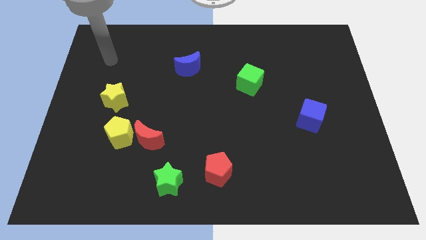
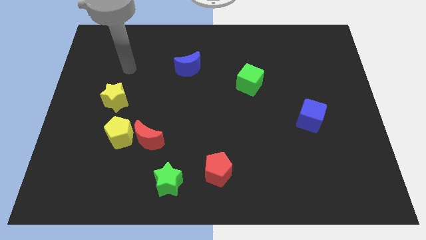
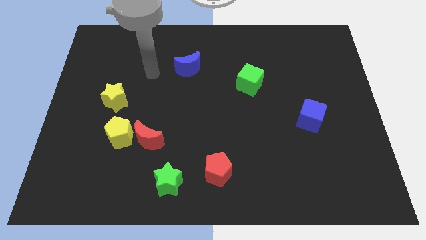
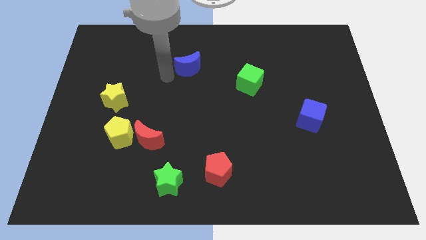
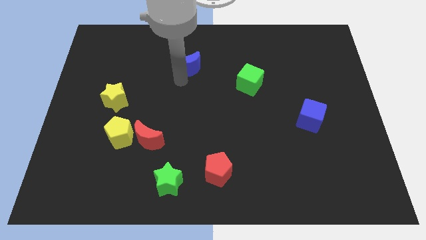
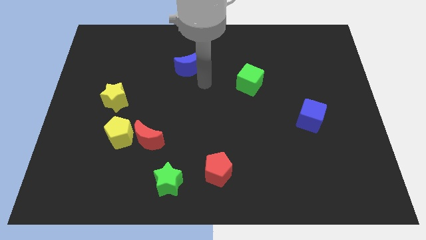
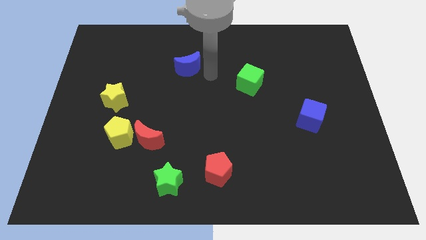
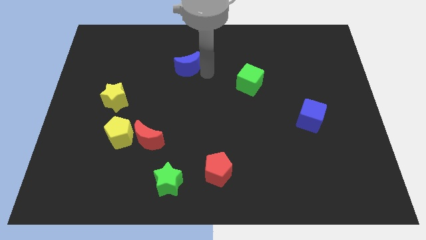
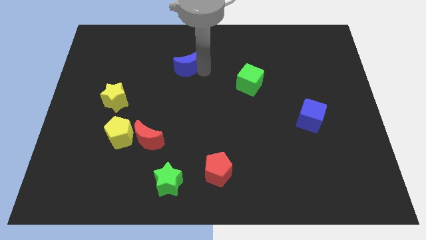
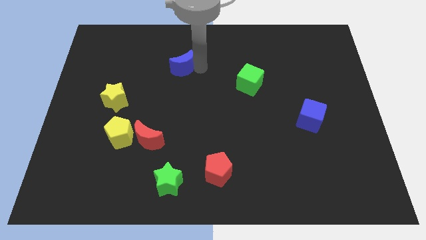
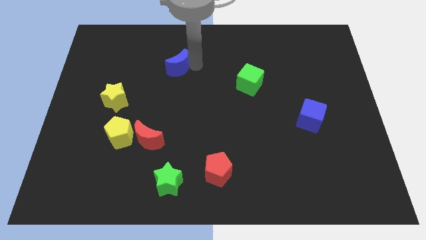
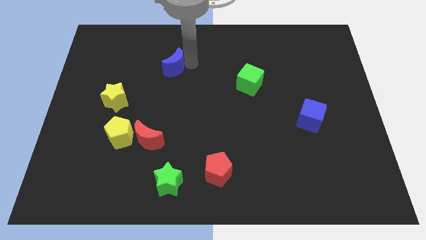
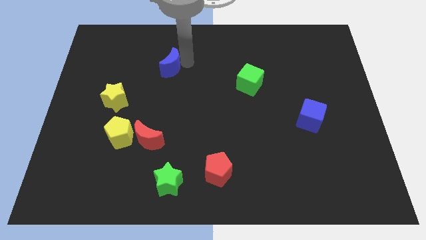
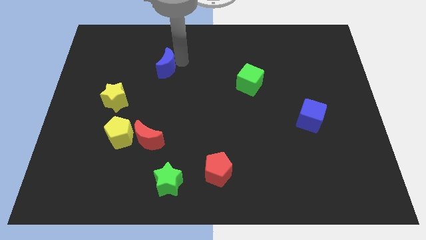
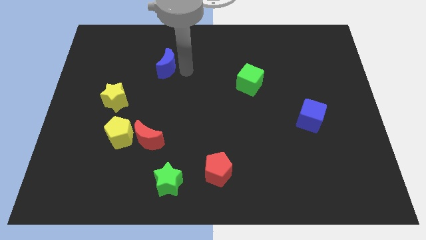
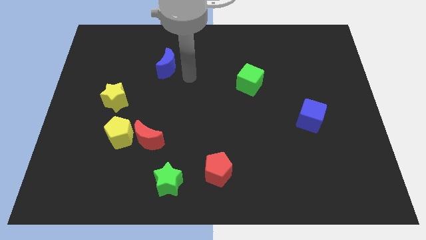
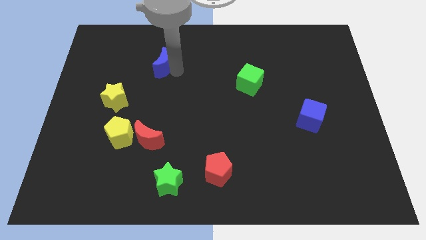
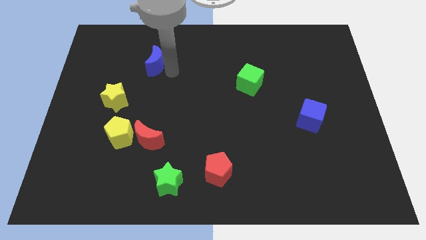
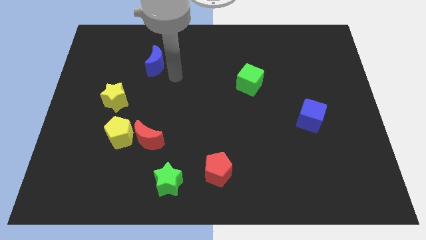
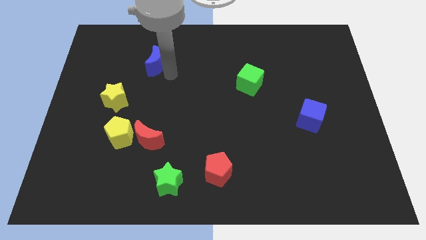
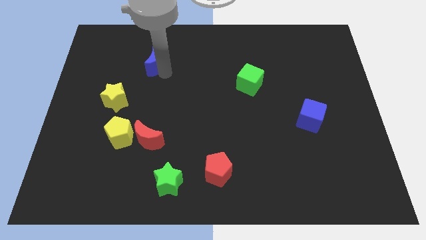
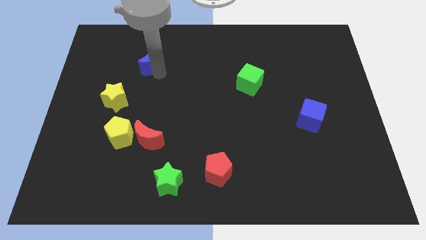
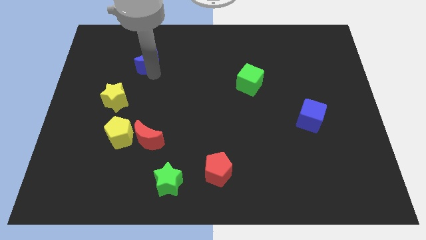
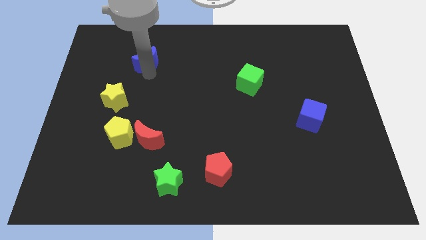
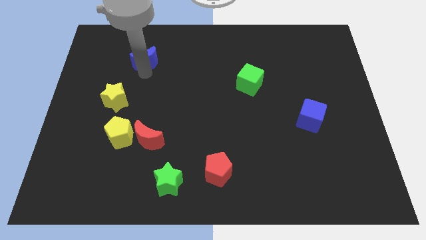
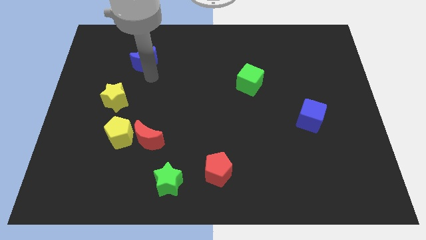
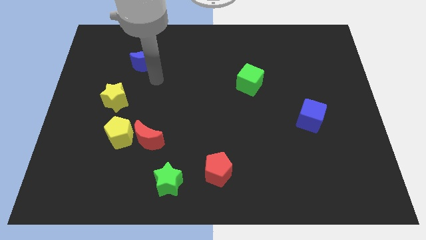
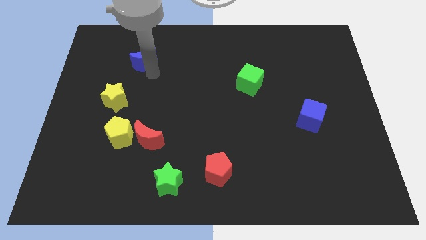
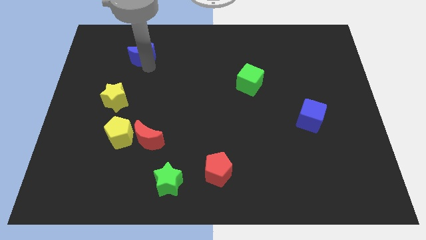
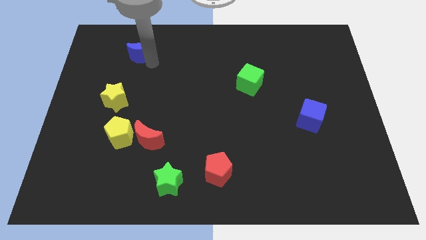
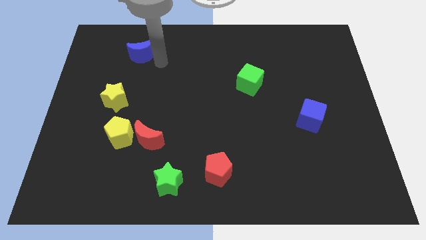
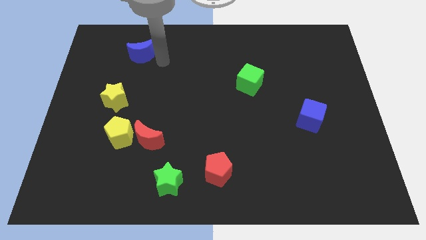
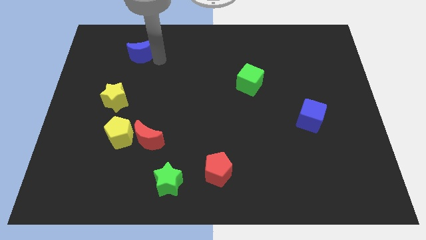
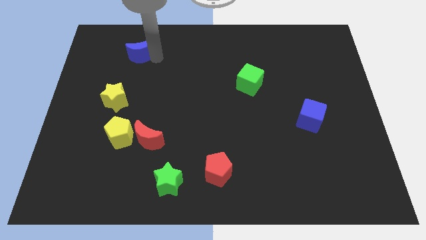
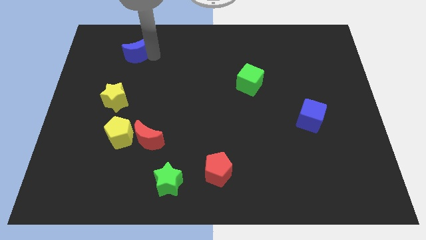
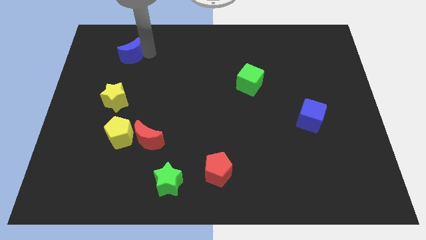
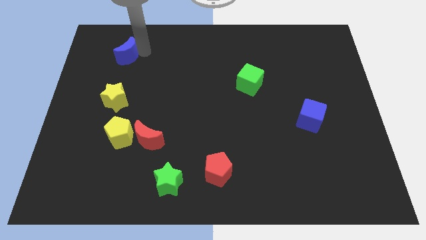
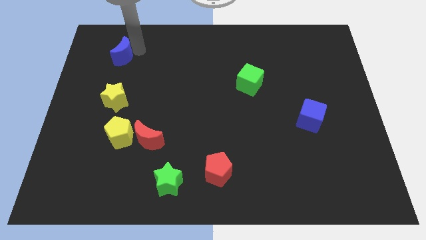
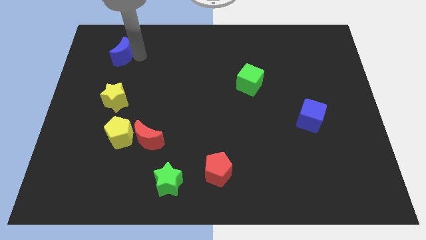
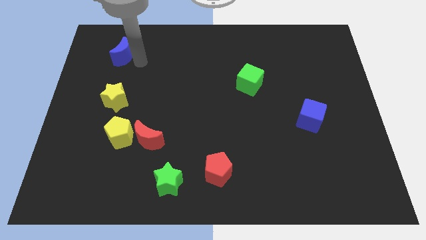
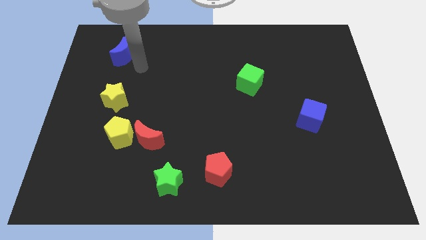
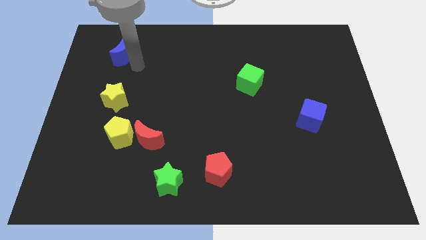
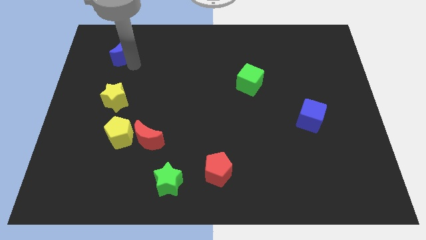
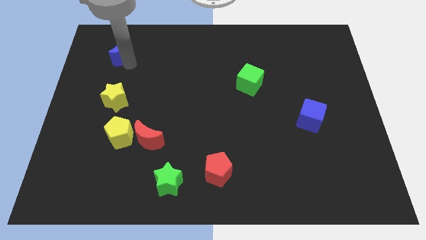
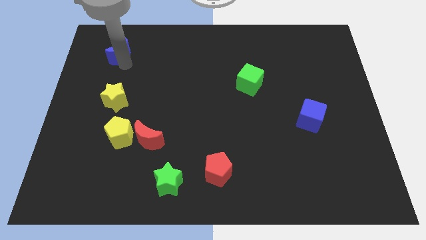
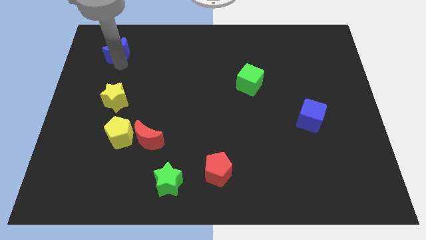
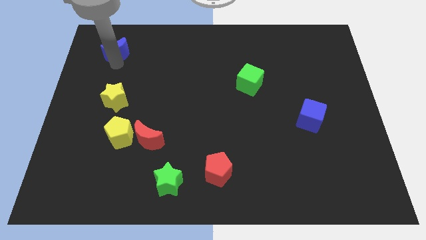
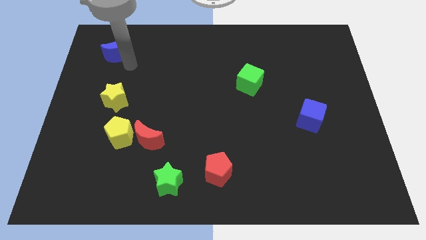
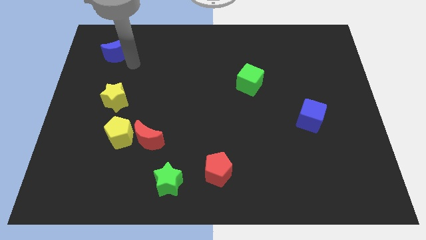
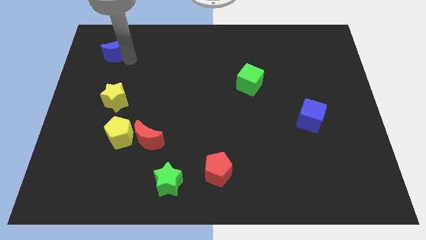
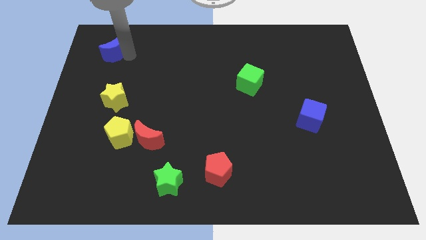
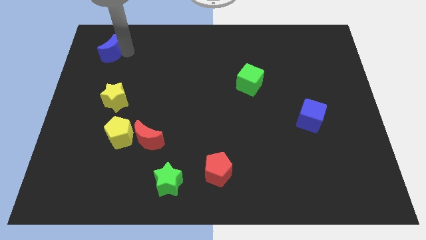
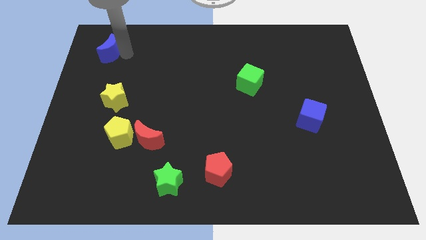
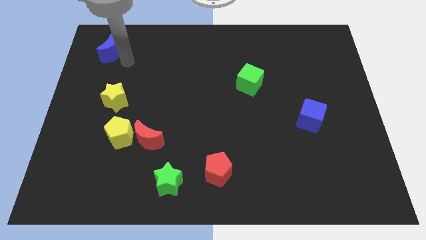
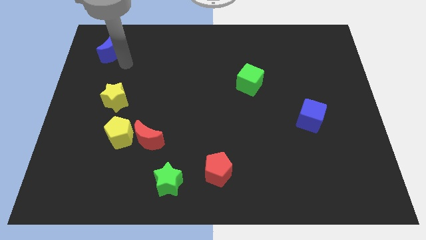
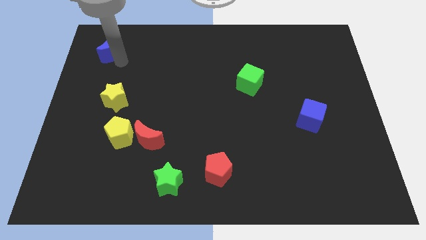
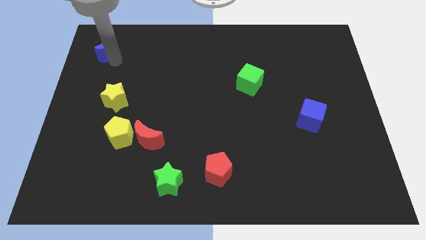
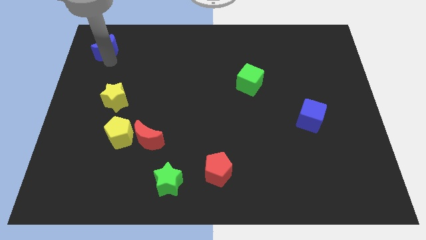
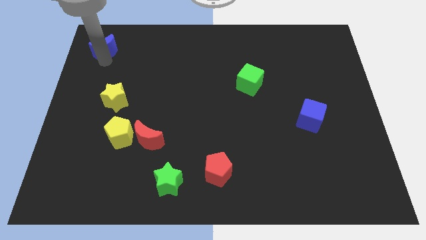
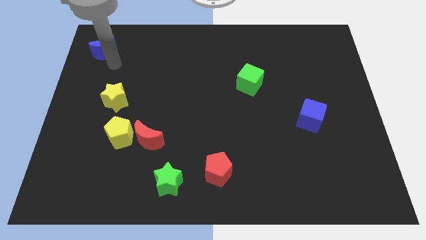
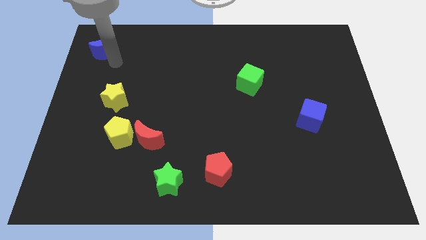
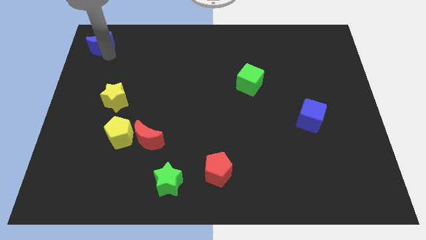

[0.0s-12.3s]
move the blue moon to the top left corner

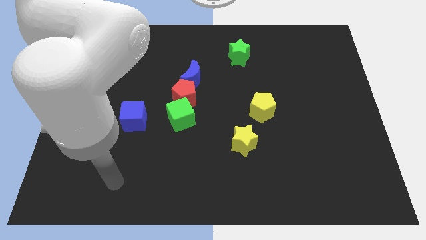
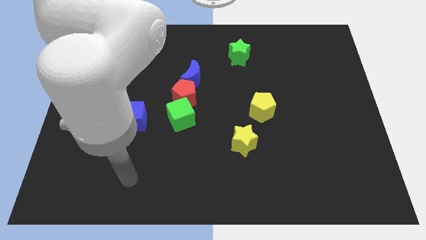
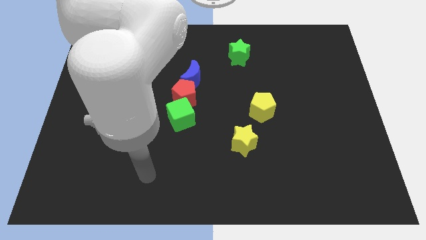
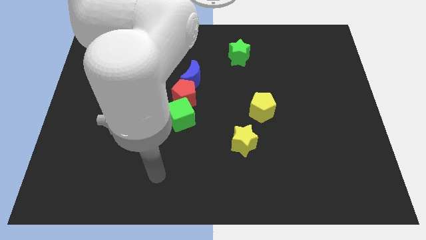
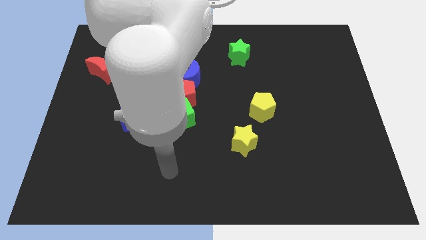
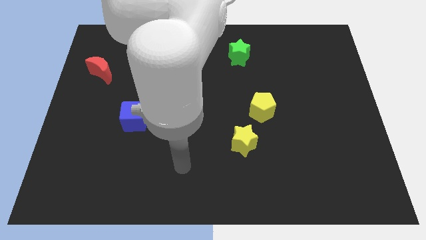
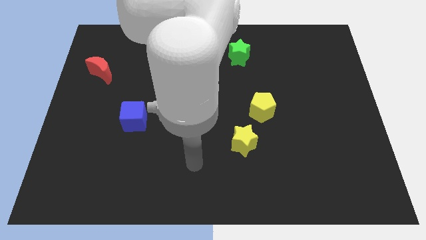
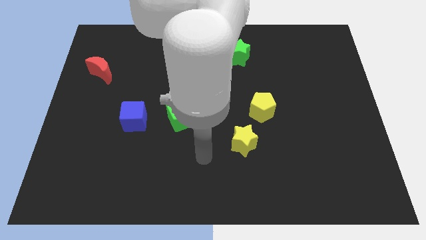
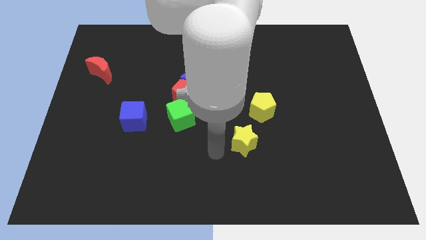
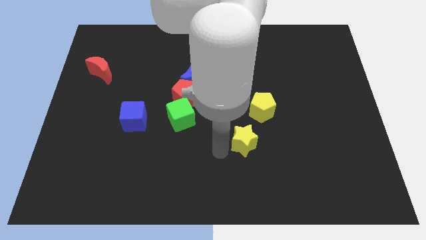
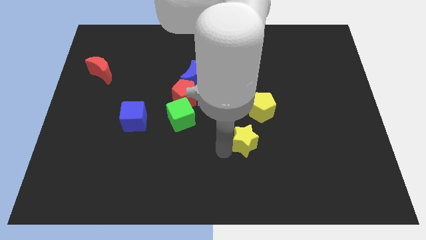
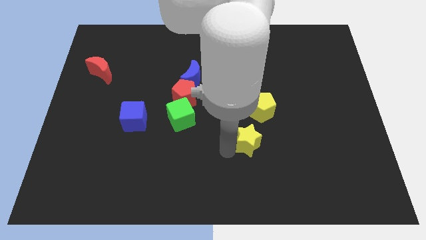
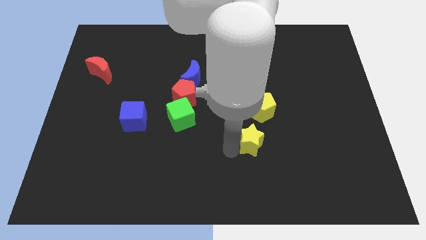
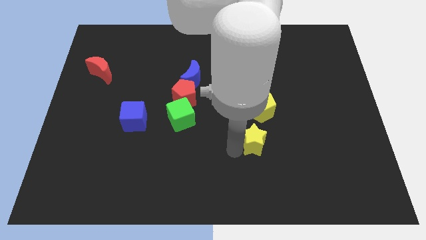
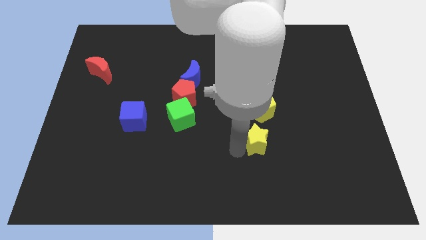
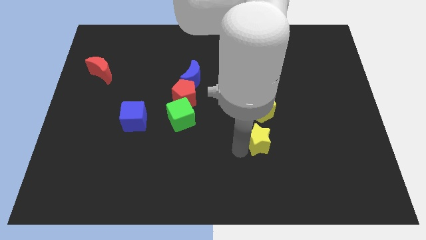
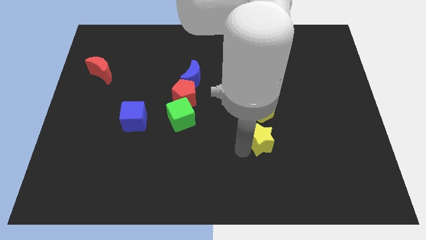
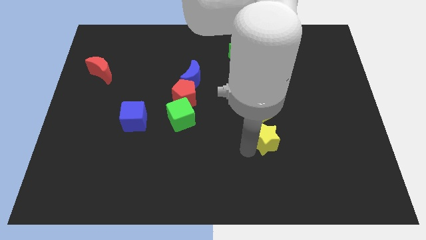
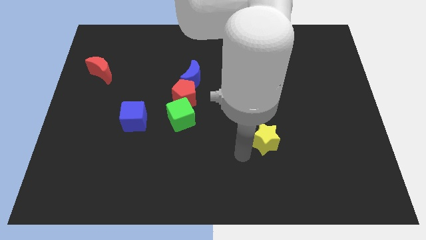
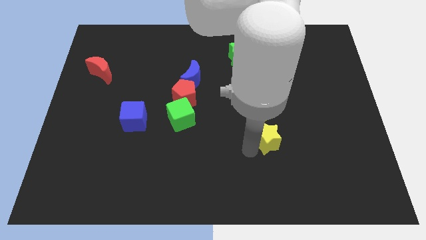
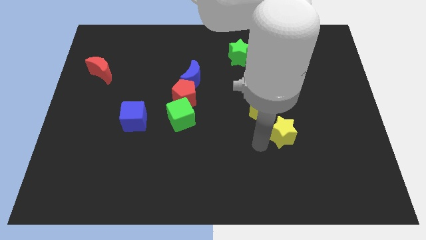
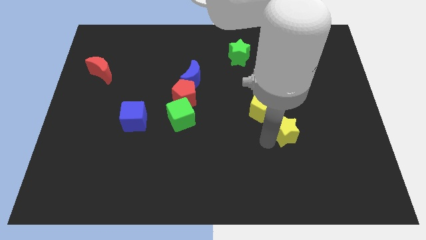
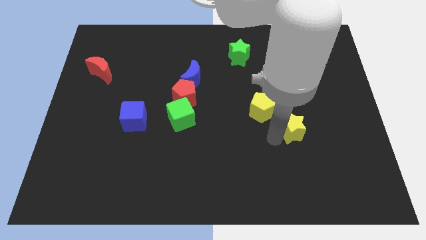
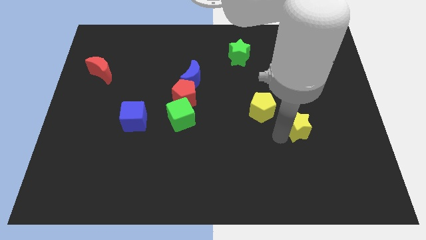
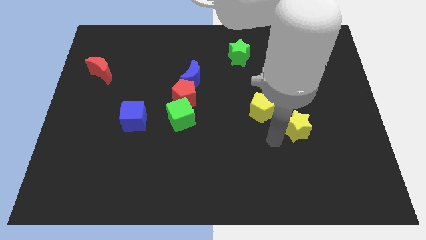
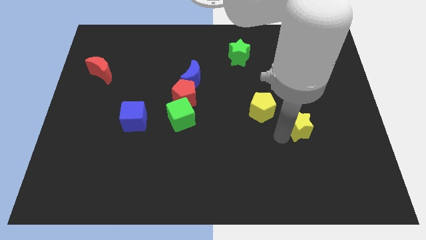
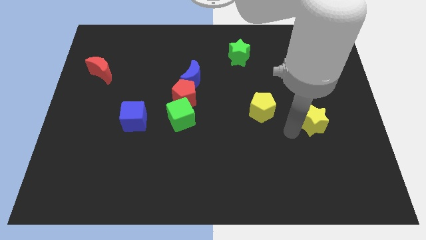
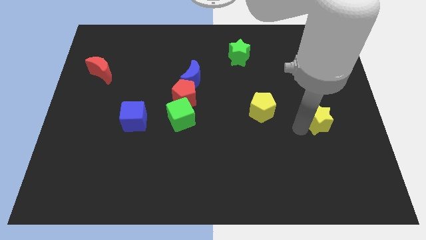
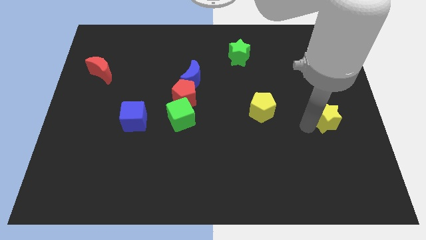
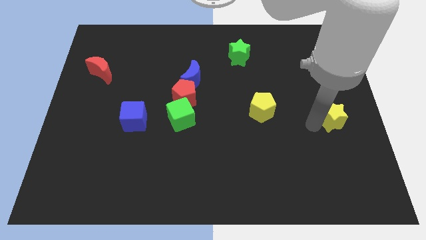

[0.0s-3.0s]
put the yellow star to the right side
